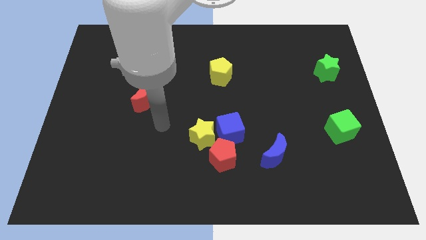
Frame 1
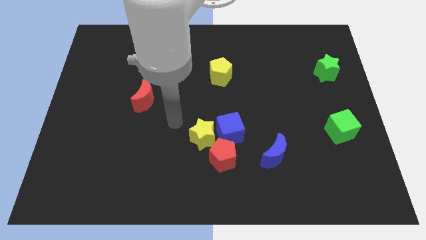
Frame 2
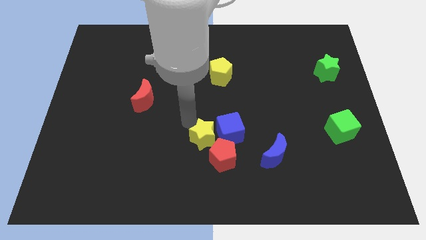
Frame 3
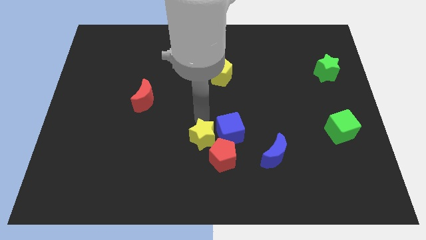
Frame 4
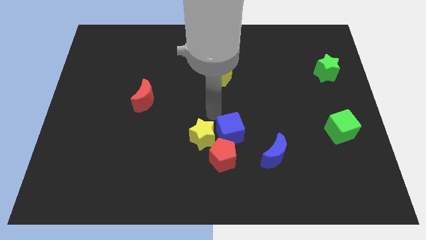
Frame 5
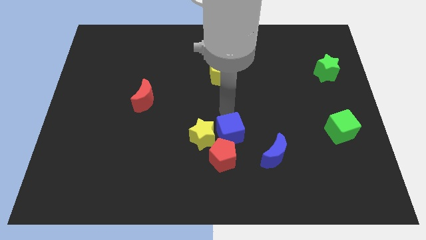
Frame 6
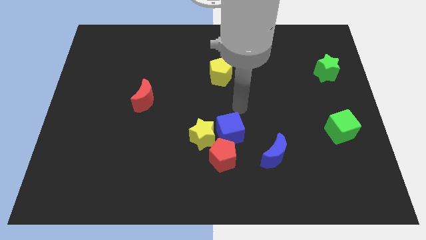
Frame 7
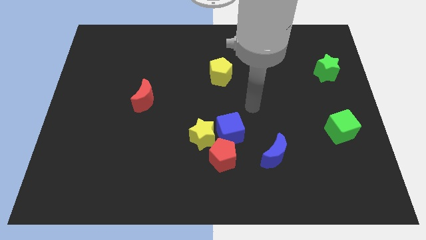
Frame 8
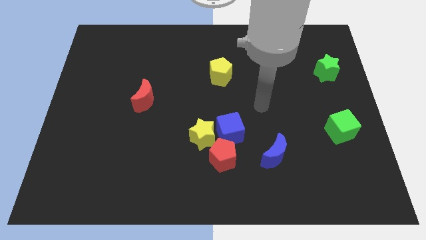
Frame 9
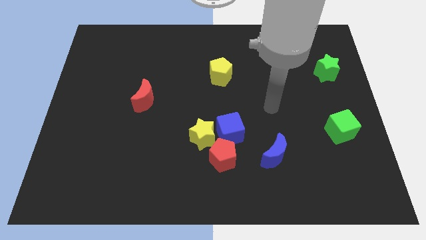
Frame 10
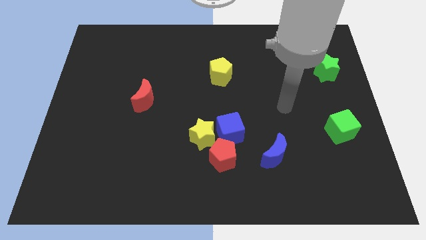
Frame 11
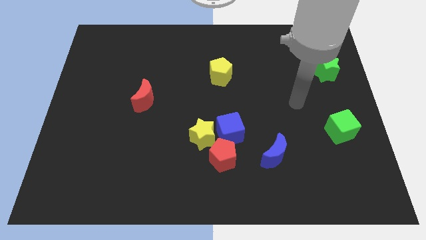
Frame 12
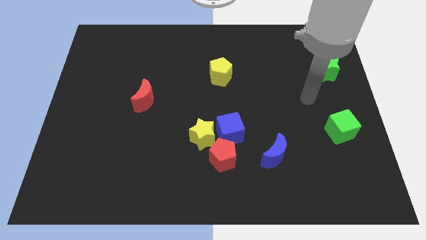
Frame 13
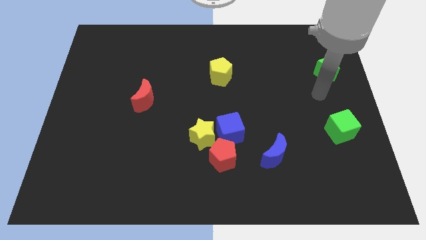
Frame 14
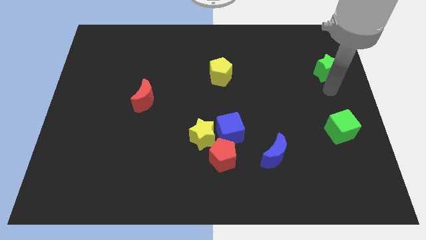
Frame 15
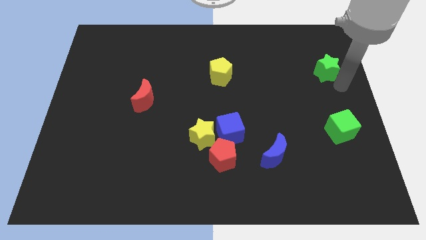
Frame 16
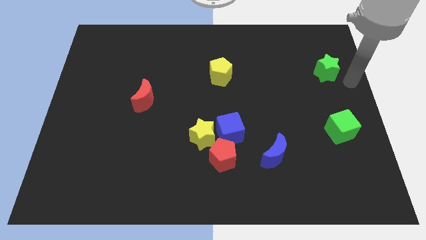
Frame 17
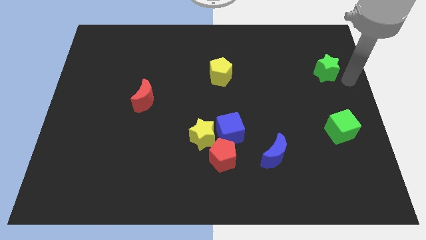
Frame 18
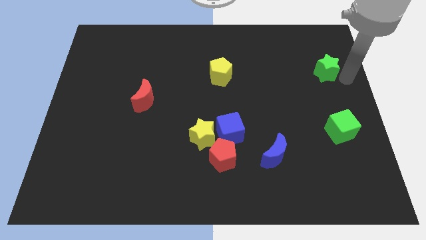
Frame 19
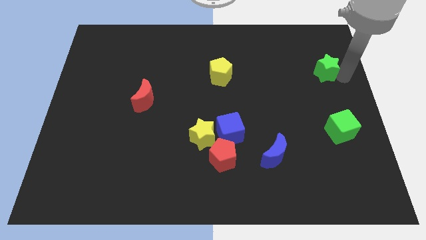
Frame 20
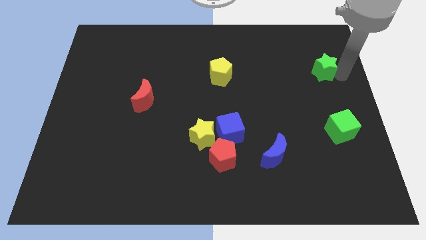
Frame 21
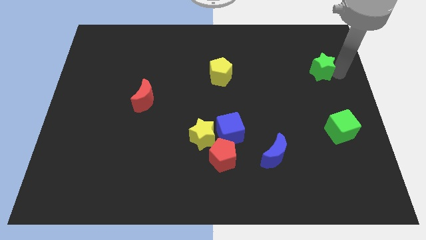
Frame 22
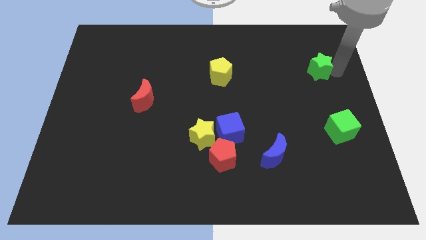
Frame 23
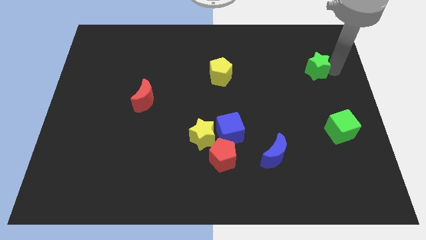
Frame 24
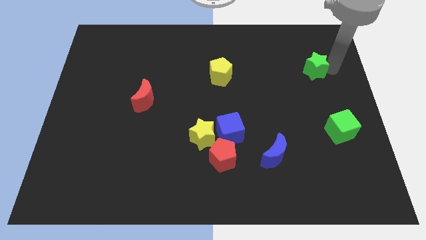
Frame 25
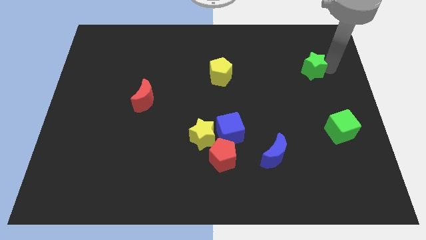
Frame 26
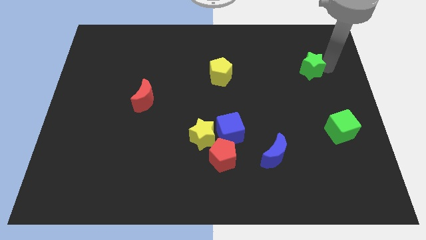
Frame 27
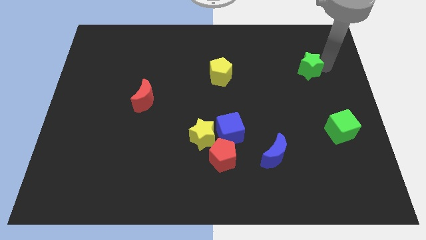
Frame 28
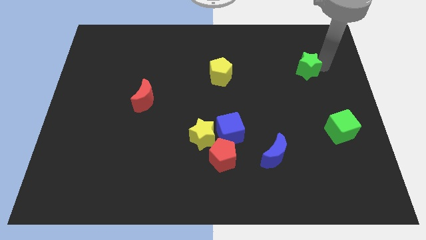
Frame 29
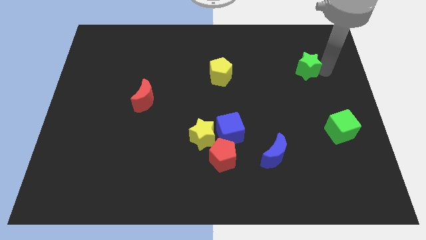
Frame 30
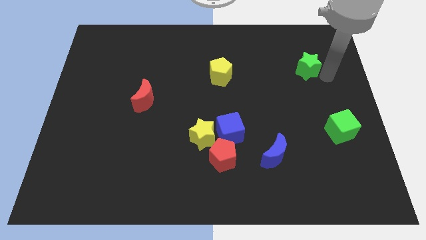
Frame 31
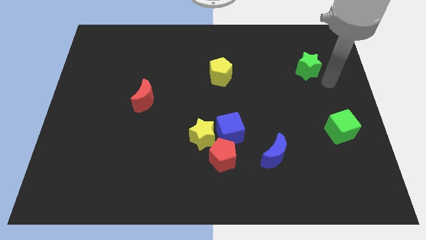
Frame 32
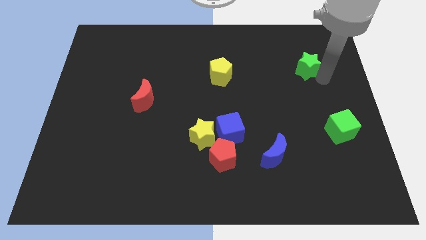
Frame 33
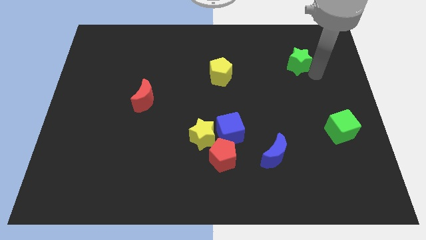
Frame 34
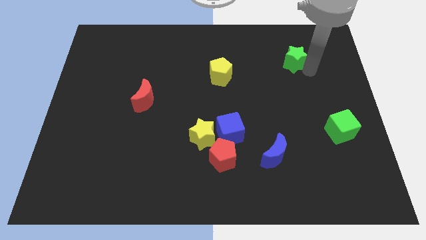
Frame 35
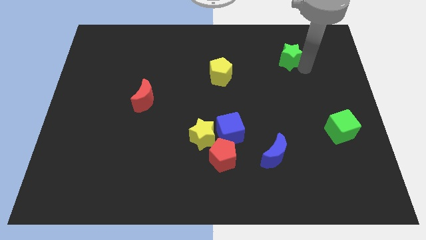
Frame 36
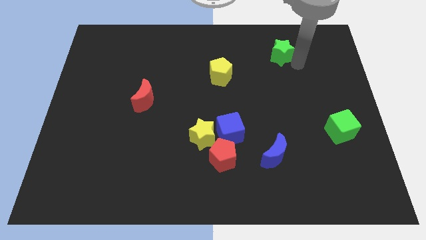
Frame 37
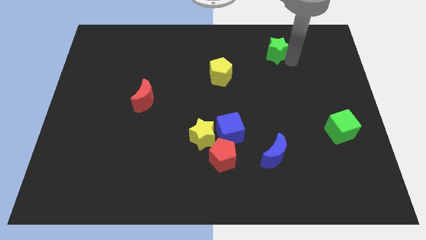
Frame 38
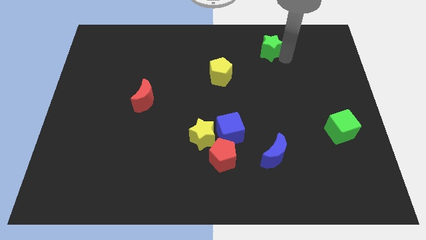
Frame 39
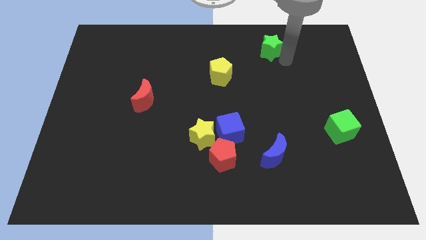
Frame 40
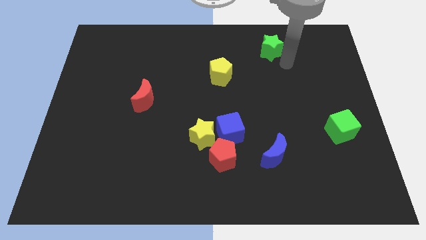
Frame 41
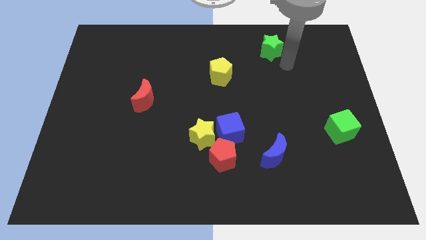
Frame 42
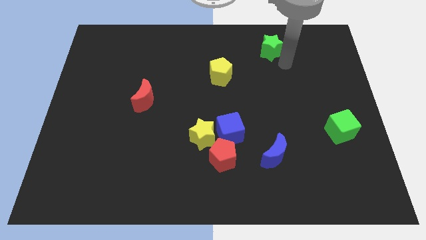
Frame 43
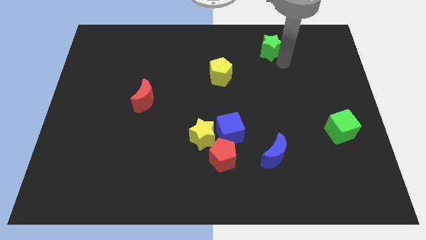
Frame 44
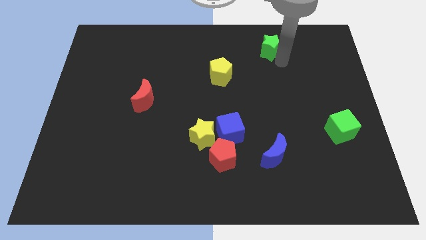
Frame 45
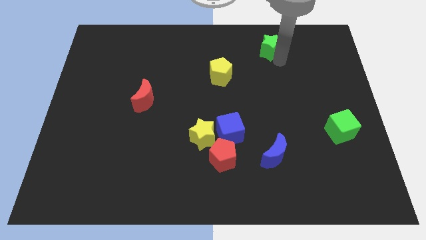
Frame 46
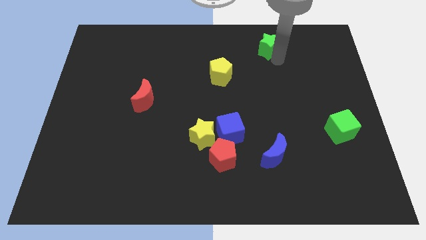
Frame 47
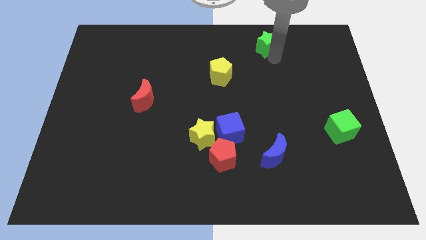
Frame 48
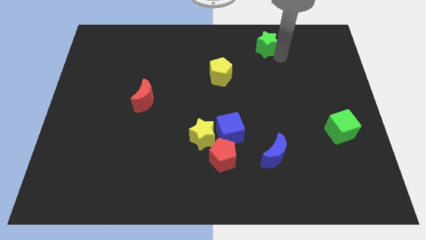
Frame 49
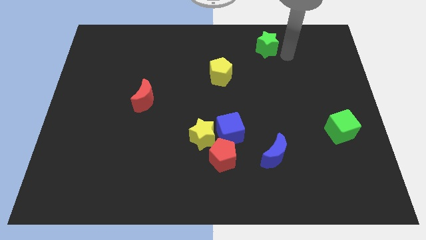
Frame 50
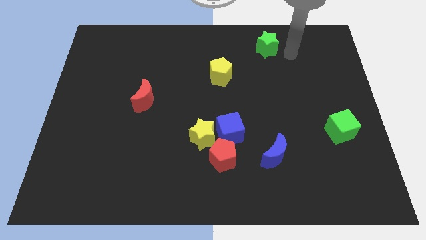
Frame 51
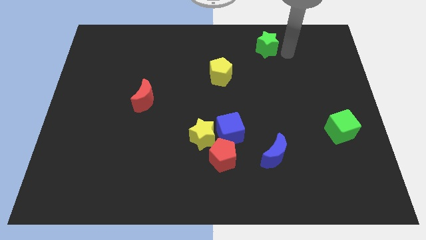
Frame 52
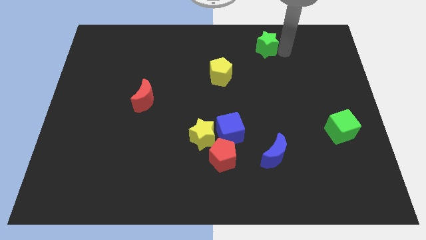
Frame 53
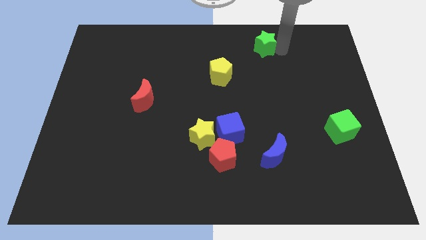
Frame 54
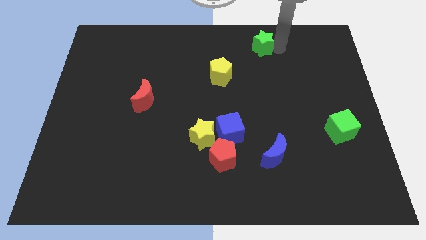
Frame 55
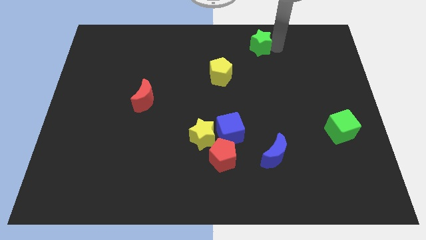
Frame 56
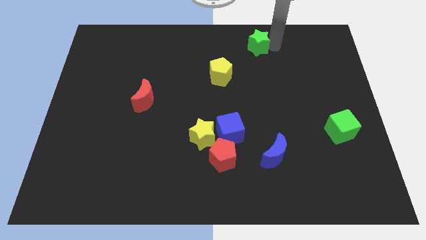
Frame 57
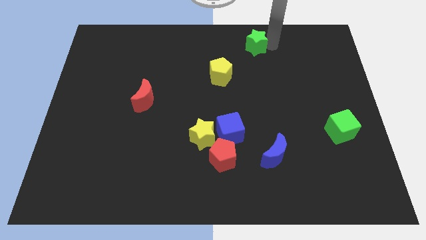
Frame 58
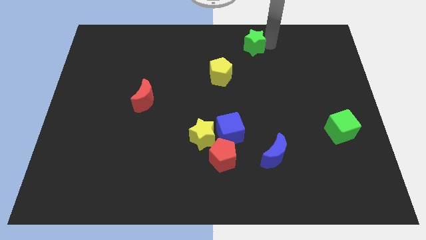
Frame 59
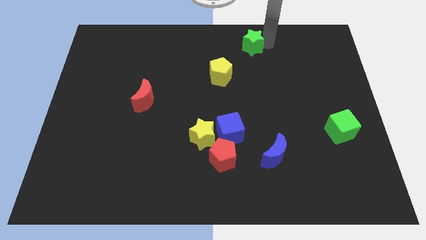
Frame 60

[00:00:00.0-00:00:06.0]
move the green star to the top

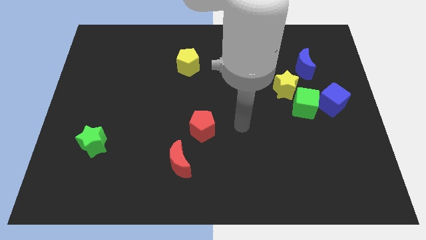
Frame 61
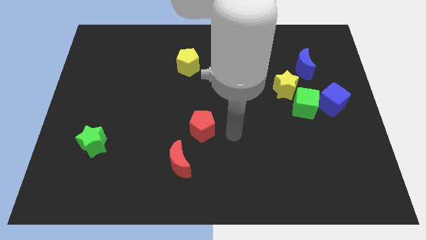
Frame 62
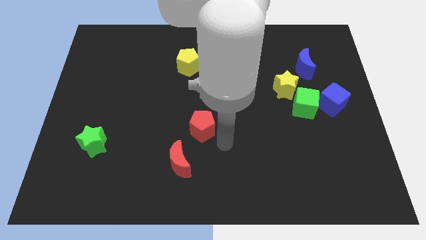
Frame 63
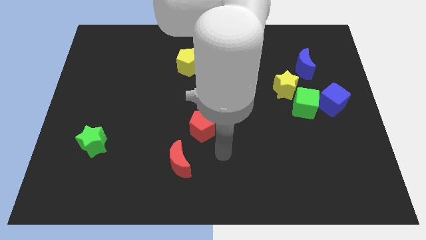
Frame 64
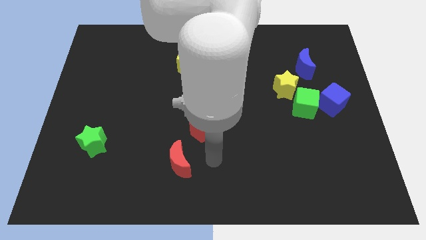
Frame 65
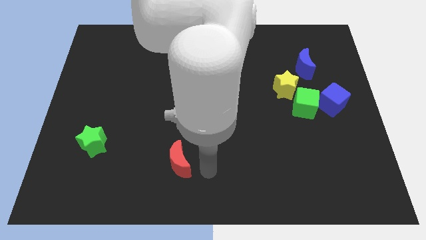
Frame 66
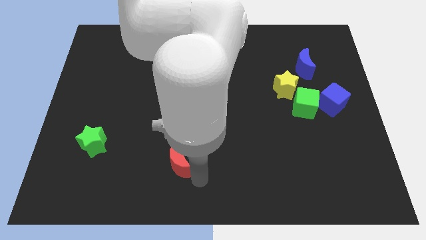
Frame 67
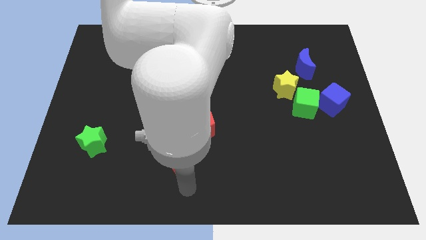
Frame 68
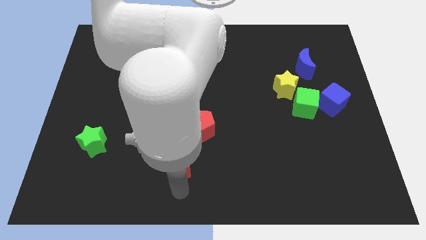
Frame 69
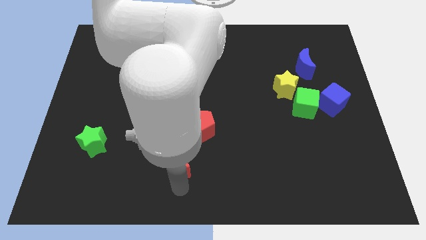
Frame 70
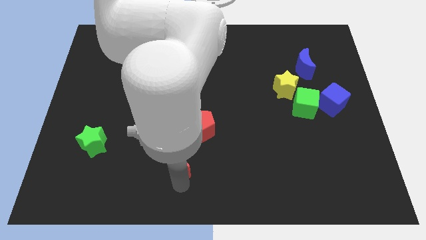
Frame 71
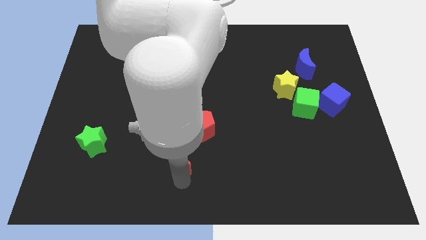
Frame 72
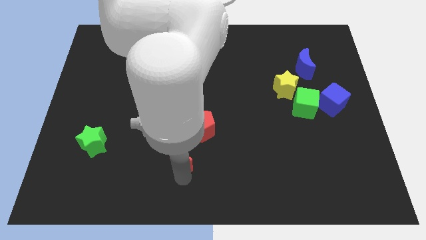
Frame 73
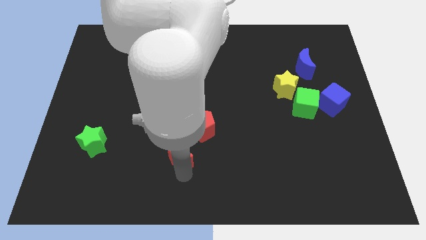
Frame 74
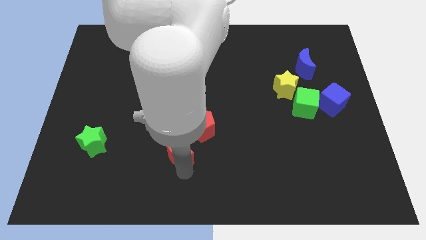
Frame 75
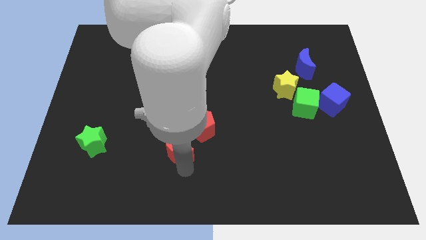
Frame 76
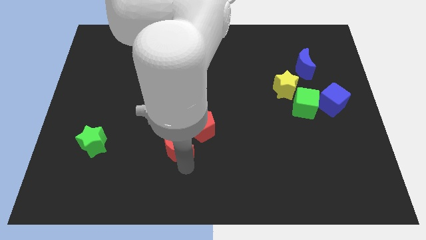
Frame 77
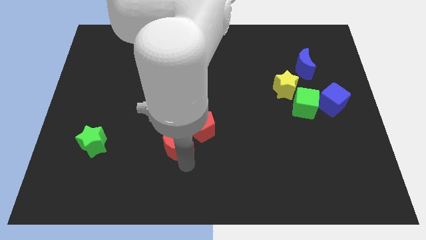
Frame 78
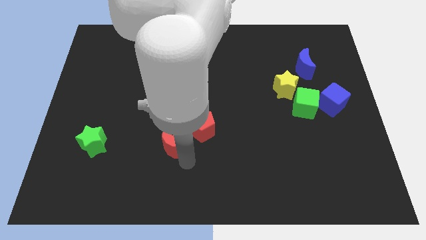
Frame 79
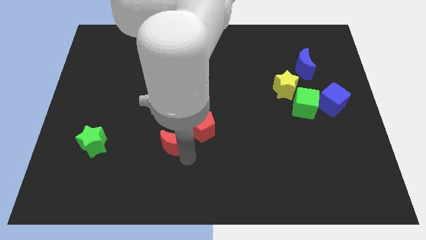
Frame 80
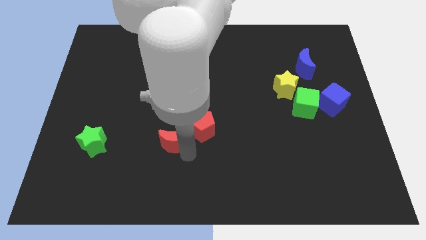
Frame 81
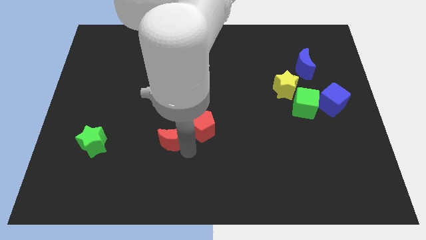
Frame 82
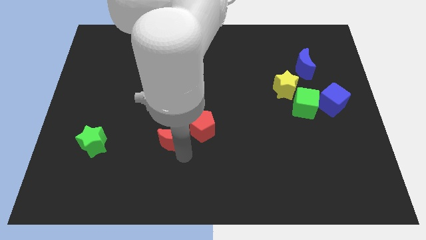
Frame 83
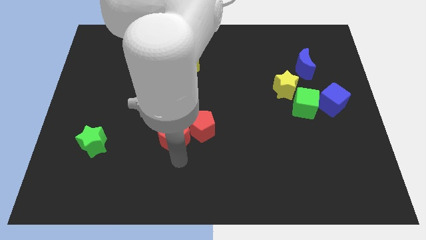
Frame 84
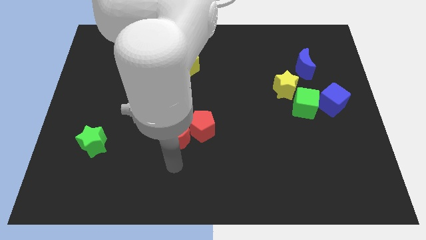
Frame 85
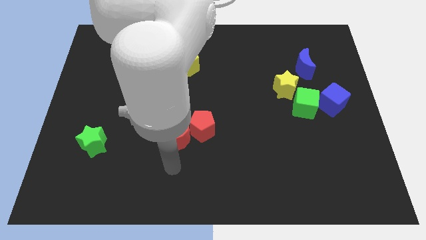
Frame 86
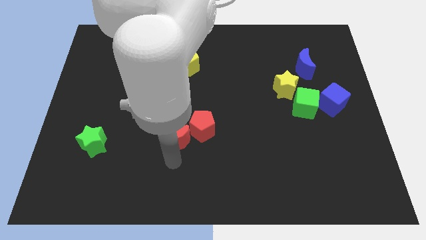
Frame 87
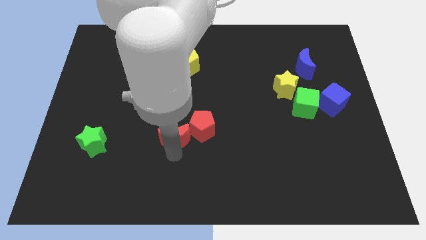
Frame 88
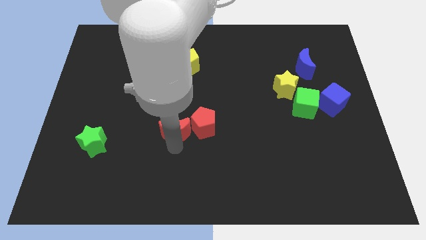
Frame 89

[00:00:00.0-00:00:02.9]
push the red moon to the center
